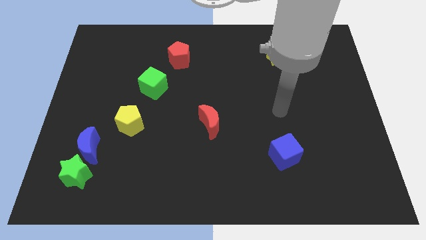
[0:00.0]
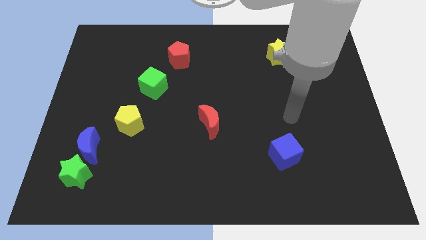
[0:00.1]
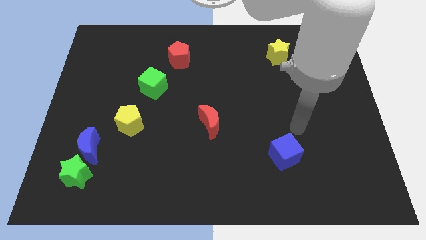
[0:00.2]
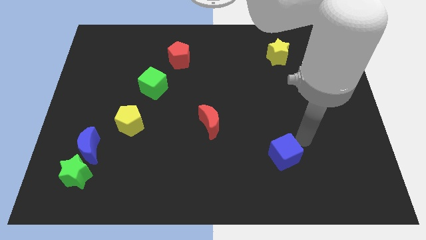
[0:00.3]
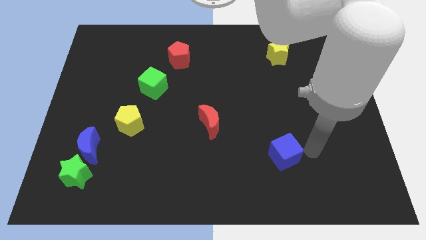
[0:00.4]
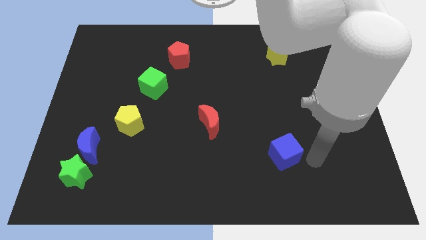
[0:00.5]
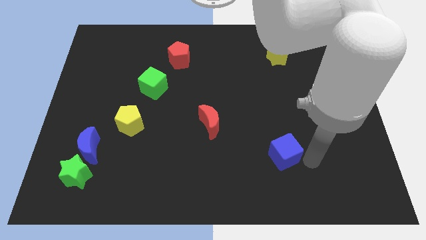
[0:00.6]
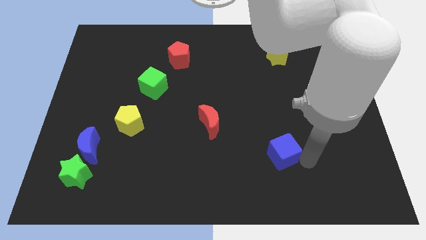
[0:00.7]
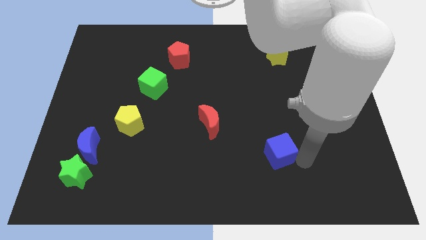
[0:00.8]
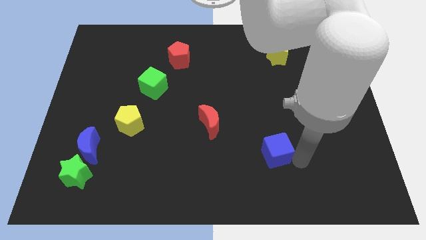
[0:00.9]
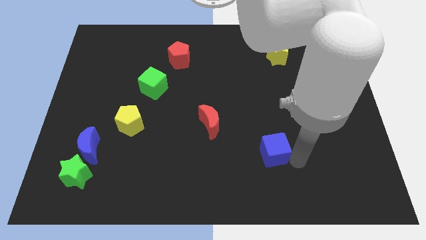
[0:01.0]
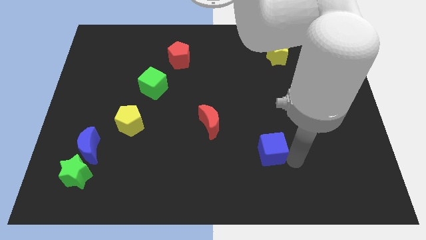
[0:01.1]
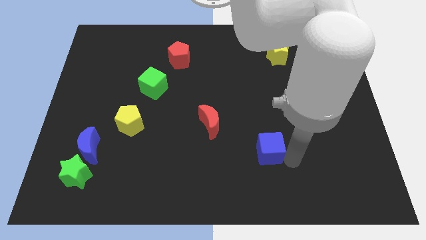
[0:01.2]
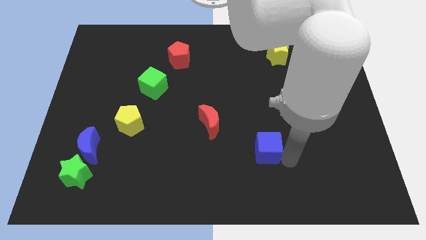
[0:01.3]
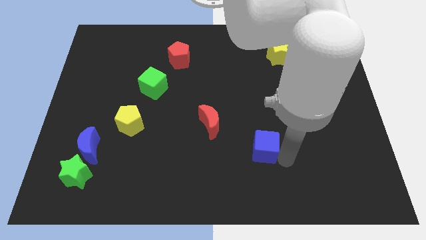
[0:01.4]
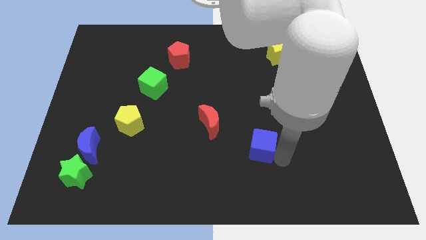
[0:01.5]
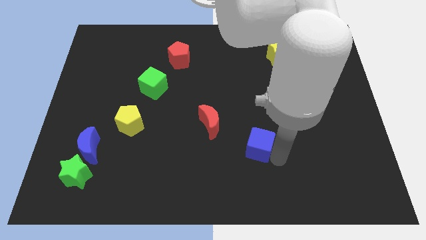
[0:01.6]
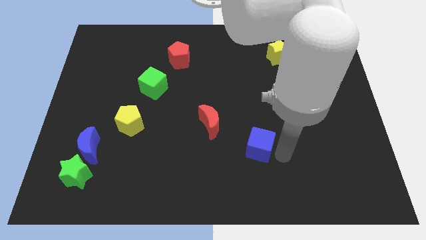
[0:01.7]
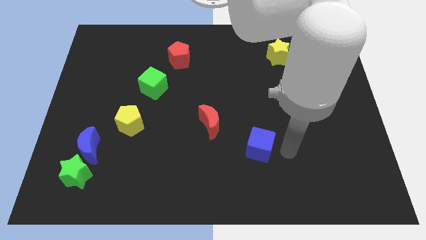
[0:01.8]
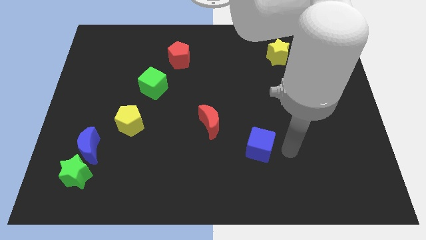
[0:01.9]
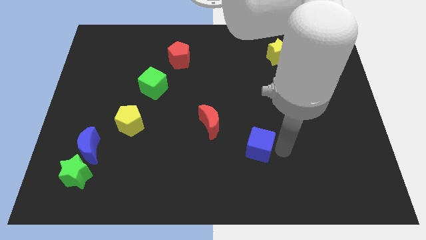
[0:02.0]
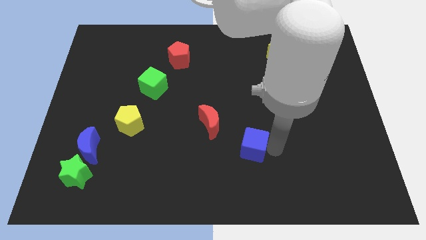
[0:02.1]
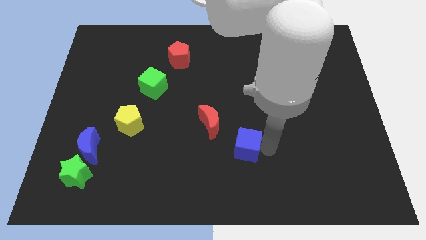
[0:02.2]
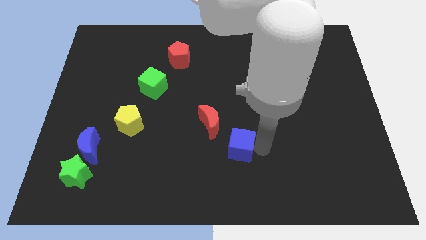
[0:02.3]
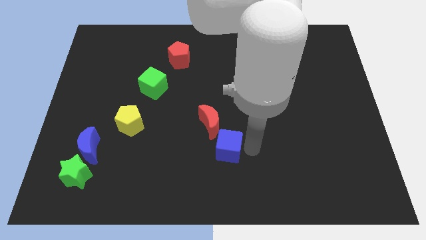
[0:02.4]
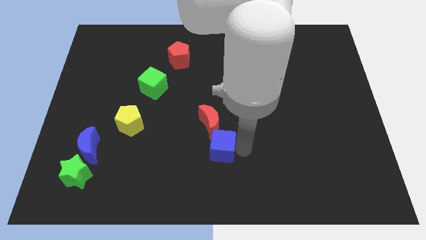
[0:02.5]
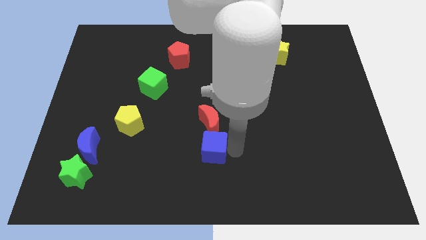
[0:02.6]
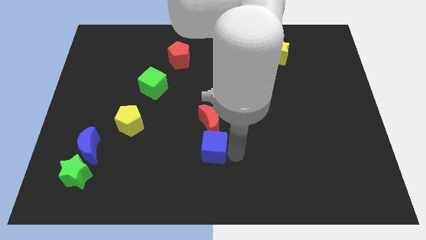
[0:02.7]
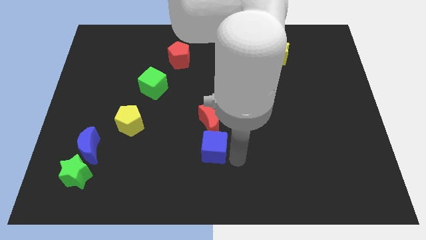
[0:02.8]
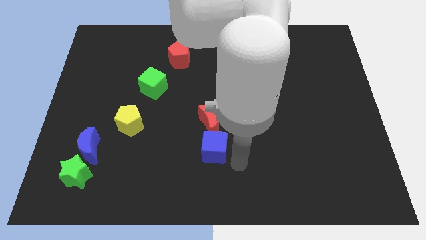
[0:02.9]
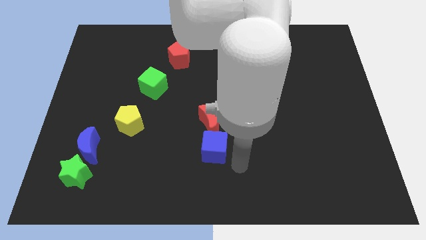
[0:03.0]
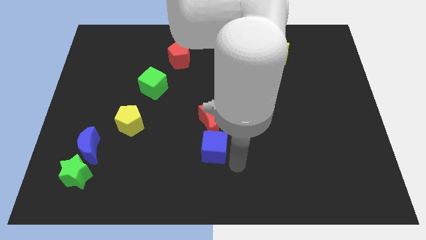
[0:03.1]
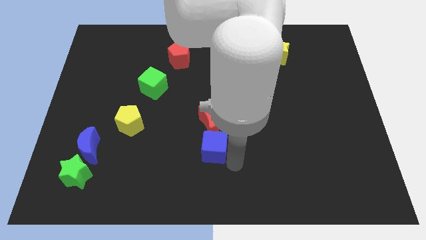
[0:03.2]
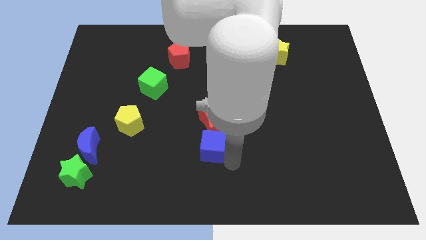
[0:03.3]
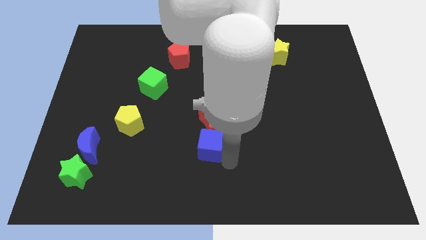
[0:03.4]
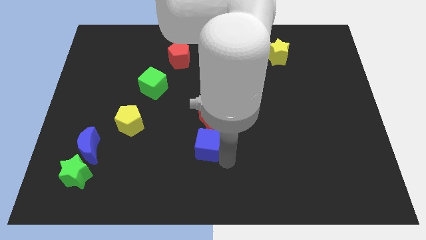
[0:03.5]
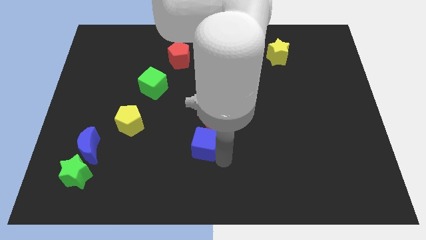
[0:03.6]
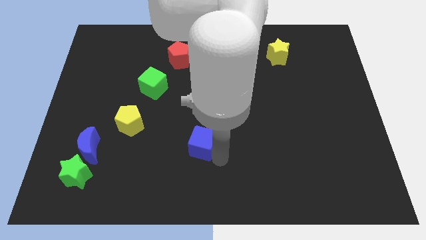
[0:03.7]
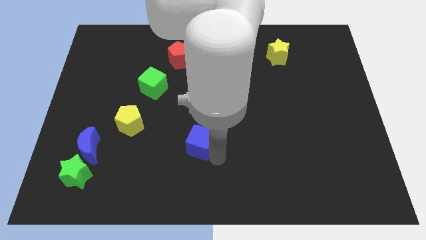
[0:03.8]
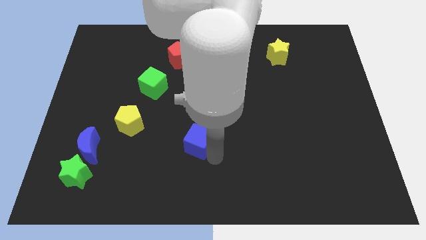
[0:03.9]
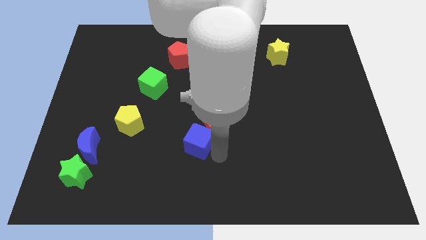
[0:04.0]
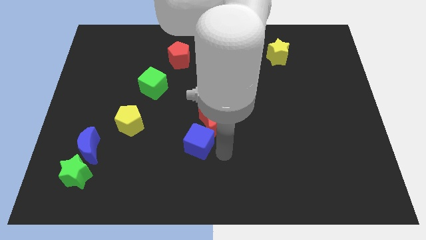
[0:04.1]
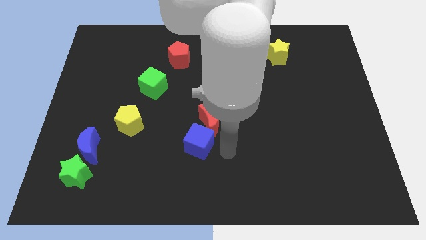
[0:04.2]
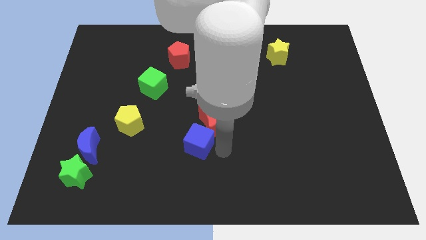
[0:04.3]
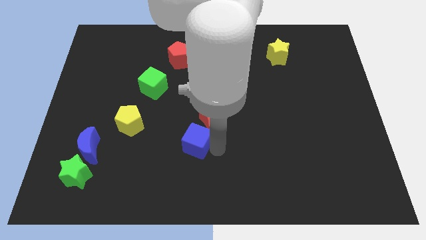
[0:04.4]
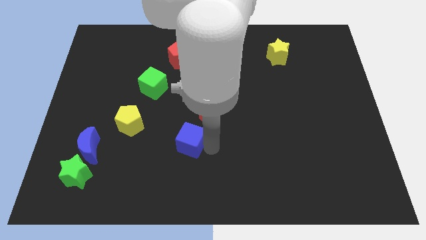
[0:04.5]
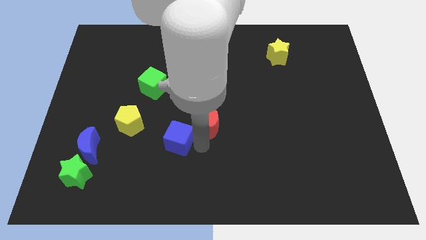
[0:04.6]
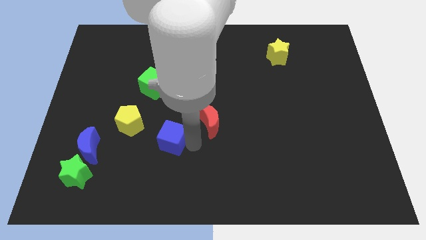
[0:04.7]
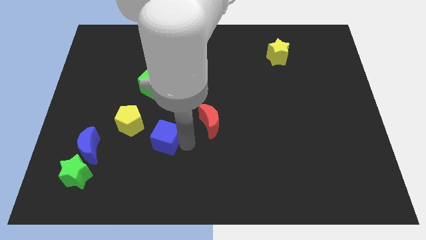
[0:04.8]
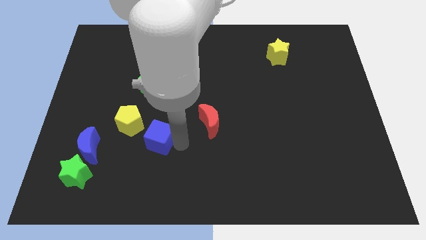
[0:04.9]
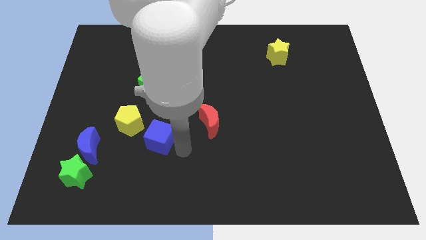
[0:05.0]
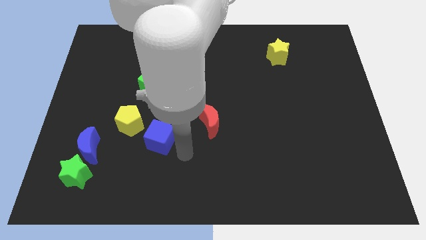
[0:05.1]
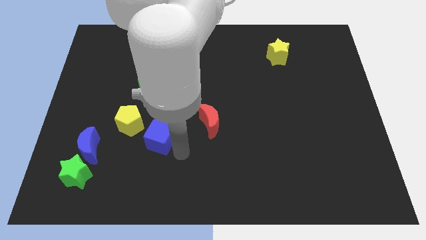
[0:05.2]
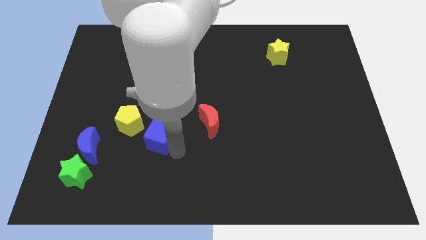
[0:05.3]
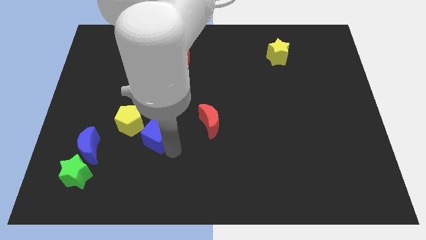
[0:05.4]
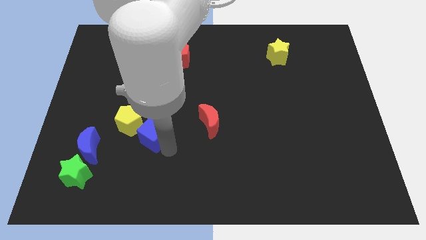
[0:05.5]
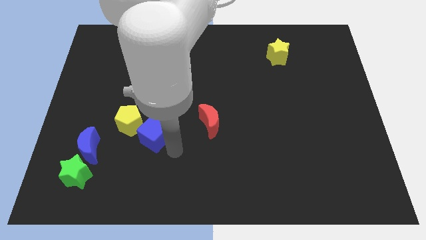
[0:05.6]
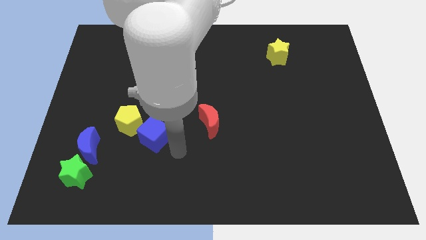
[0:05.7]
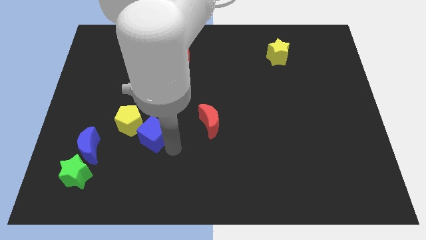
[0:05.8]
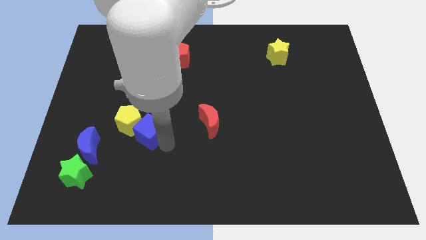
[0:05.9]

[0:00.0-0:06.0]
slide the blue cube next to the yellow pentagon

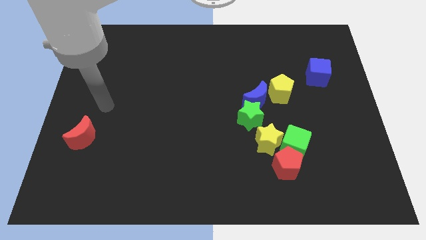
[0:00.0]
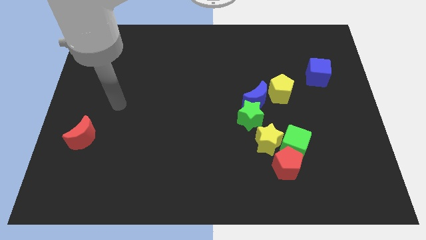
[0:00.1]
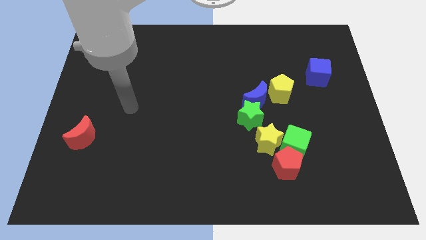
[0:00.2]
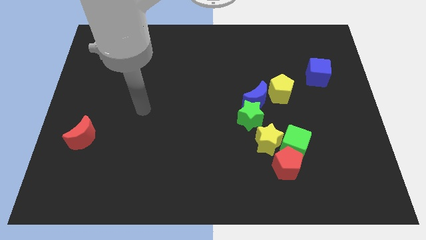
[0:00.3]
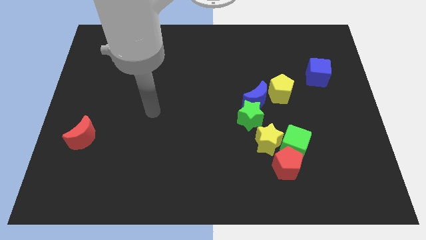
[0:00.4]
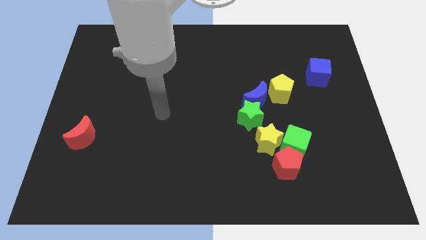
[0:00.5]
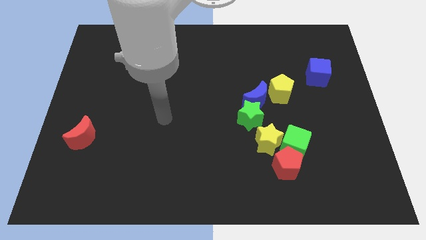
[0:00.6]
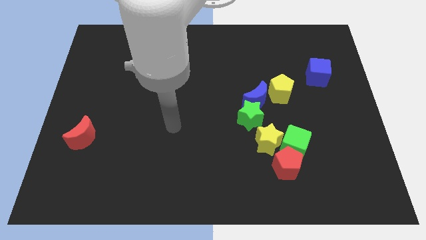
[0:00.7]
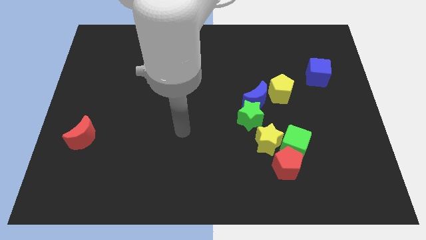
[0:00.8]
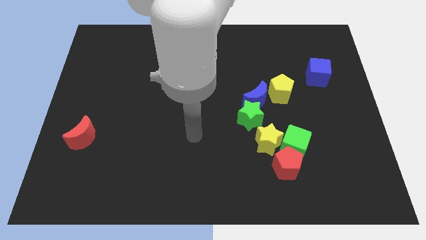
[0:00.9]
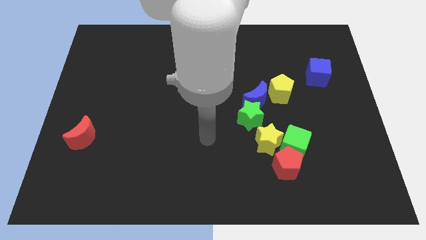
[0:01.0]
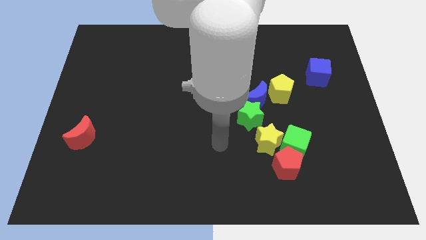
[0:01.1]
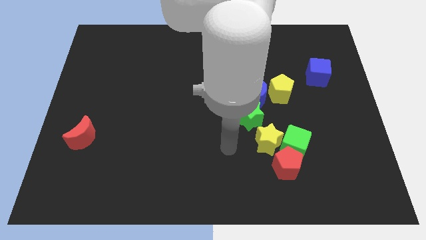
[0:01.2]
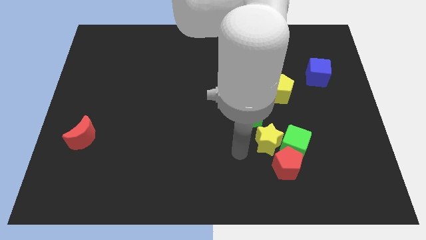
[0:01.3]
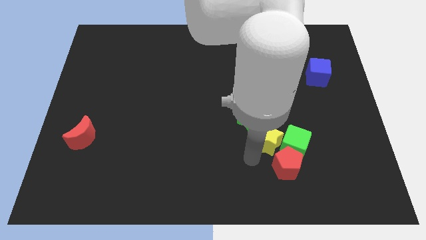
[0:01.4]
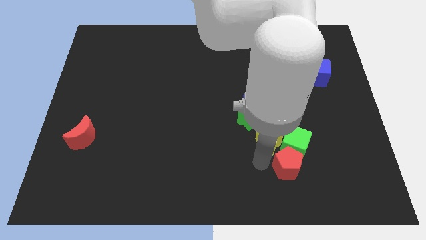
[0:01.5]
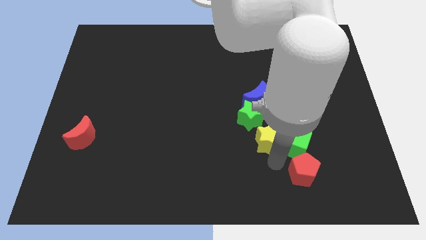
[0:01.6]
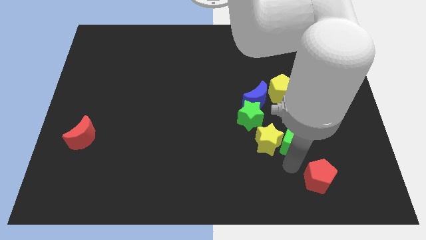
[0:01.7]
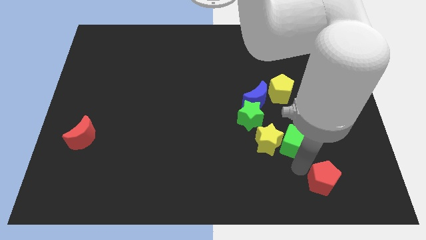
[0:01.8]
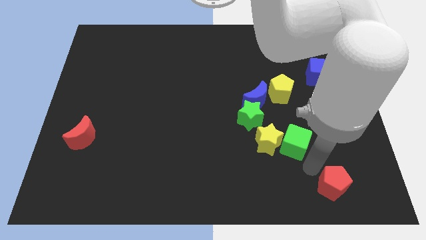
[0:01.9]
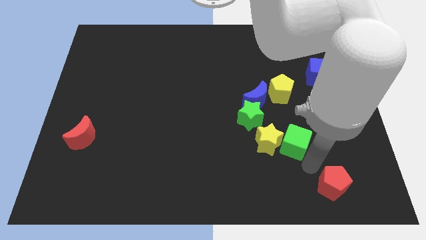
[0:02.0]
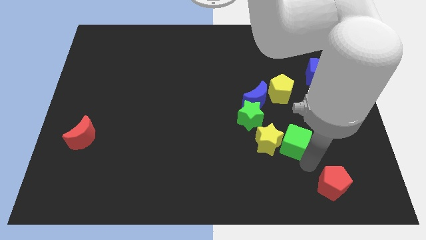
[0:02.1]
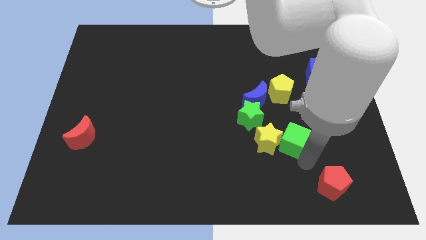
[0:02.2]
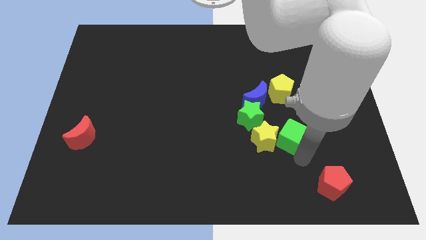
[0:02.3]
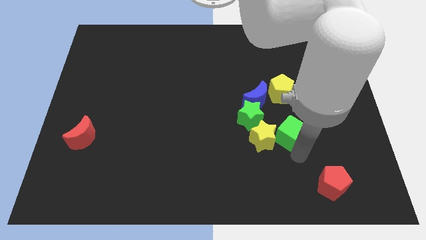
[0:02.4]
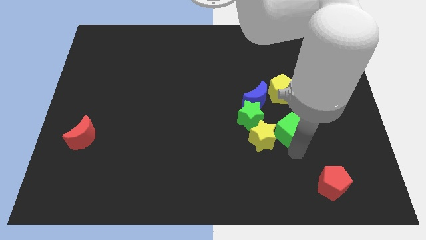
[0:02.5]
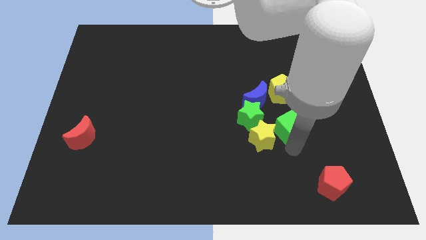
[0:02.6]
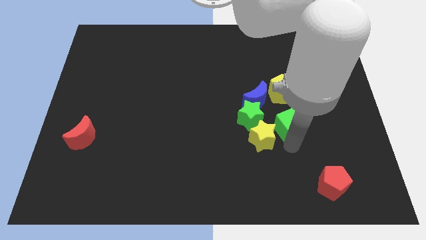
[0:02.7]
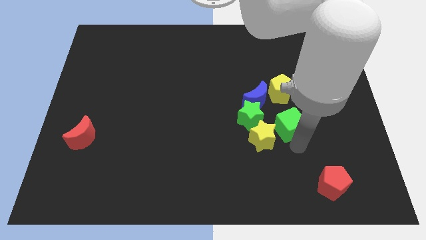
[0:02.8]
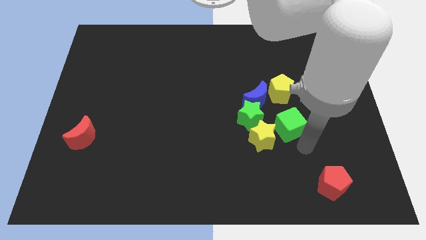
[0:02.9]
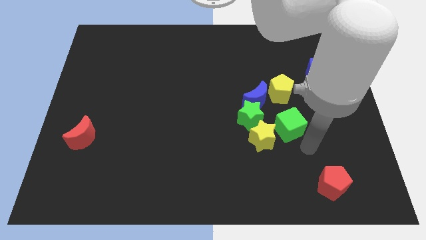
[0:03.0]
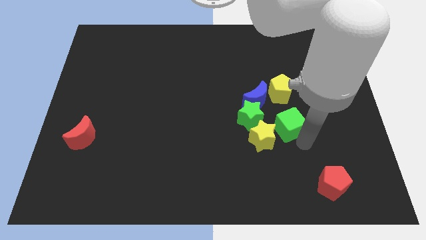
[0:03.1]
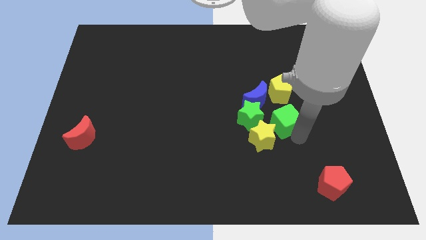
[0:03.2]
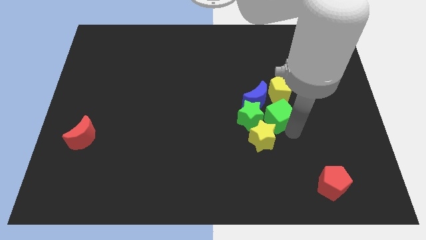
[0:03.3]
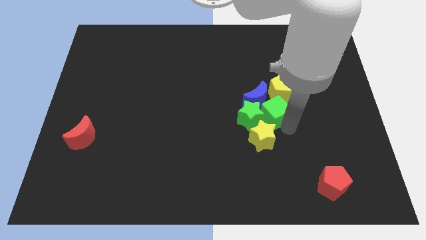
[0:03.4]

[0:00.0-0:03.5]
put the green cube to the blue moon
